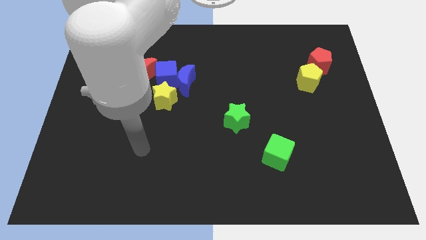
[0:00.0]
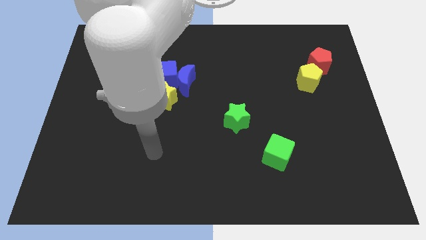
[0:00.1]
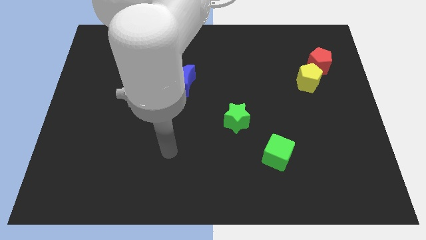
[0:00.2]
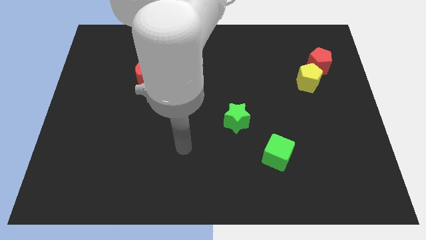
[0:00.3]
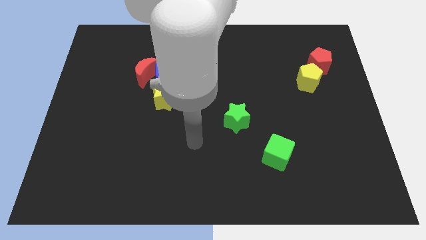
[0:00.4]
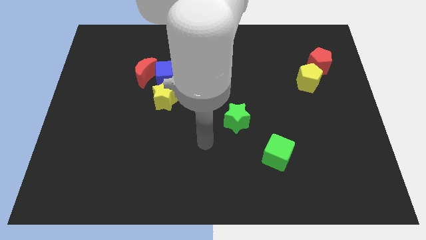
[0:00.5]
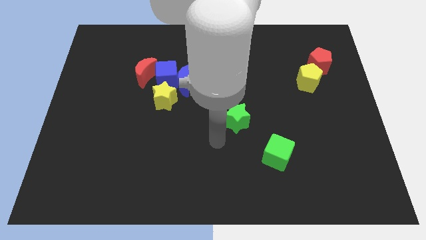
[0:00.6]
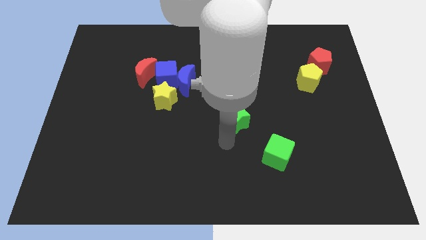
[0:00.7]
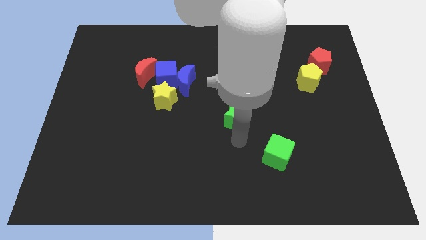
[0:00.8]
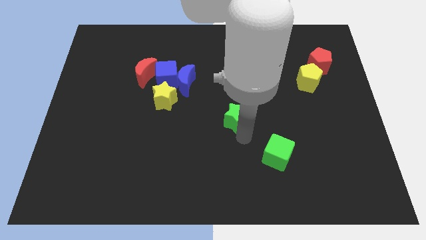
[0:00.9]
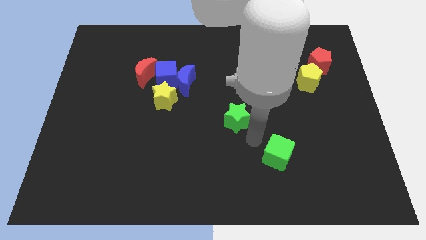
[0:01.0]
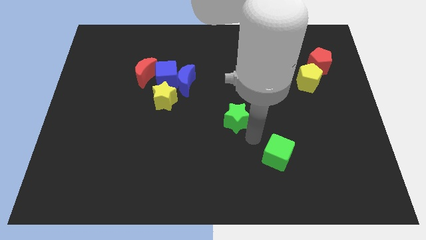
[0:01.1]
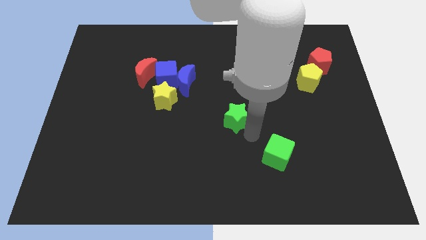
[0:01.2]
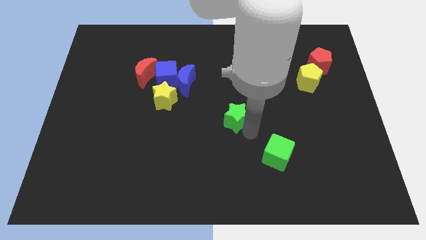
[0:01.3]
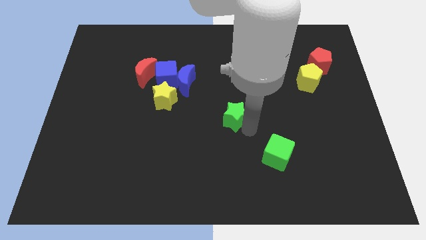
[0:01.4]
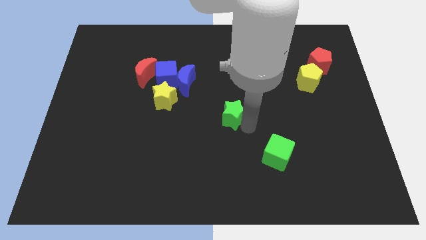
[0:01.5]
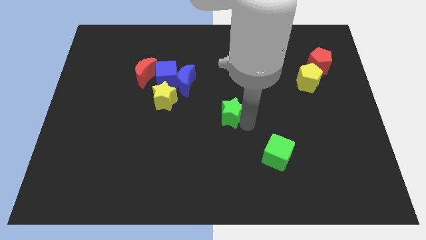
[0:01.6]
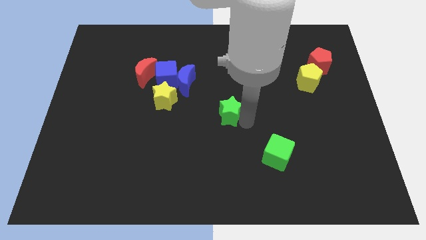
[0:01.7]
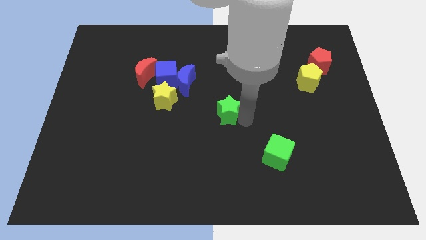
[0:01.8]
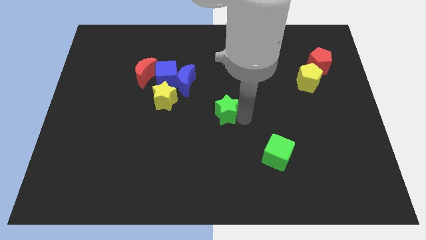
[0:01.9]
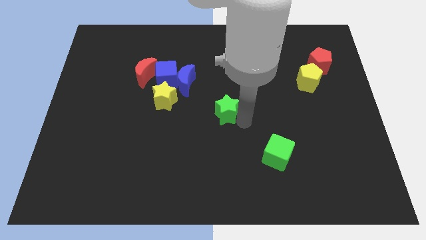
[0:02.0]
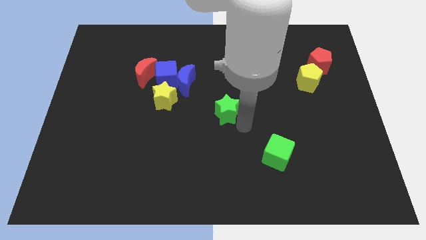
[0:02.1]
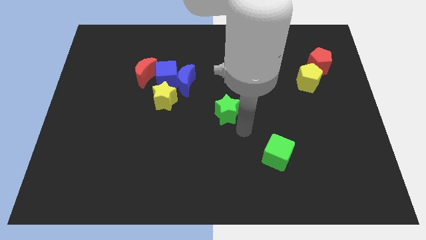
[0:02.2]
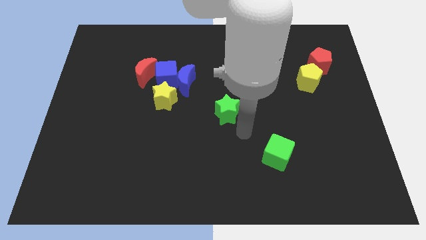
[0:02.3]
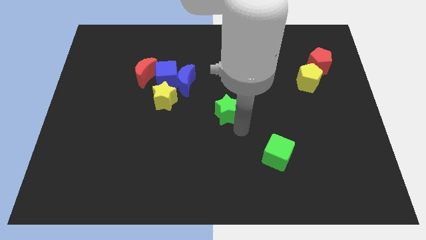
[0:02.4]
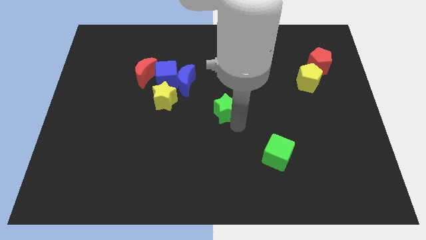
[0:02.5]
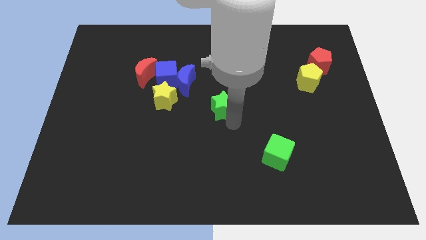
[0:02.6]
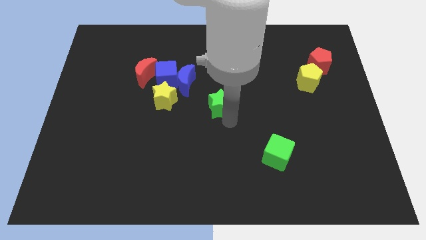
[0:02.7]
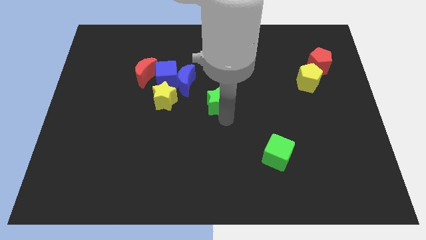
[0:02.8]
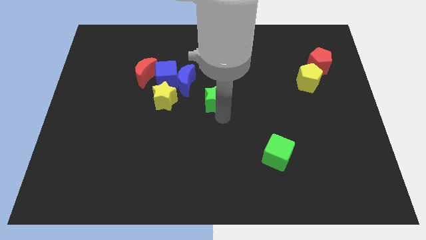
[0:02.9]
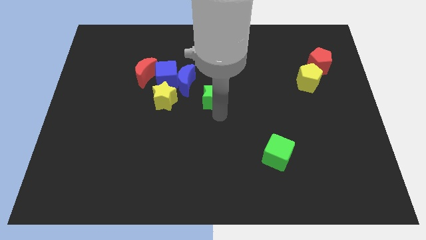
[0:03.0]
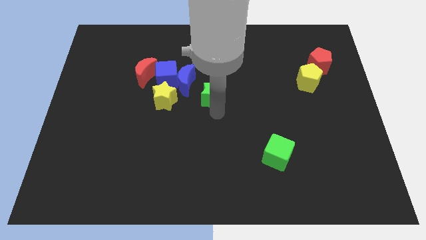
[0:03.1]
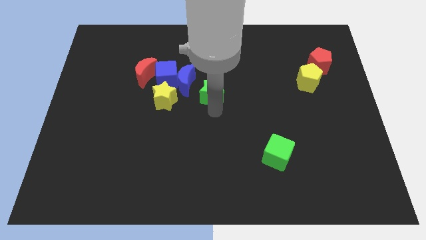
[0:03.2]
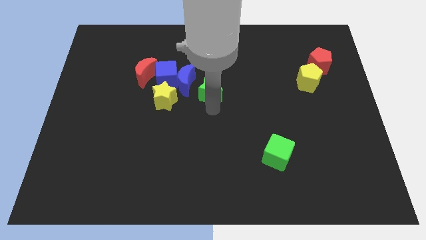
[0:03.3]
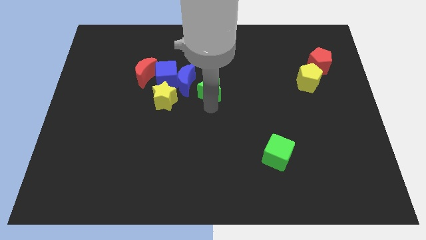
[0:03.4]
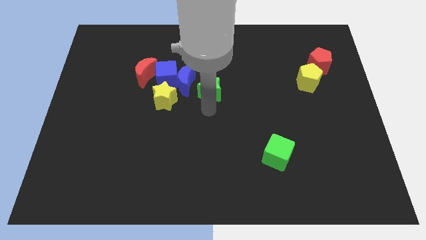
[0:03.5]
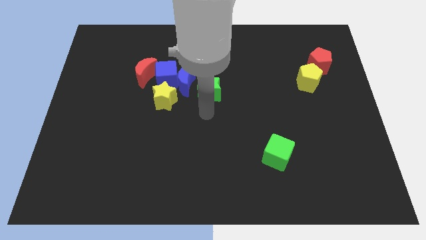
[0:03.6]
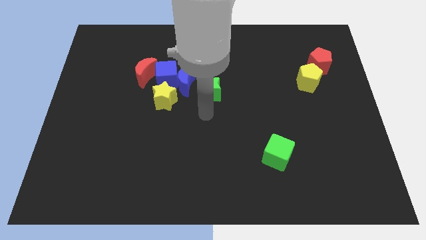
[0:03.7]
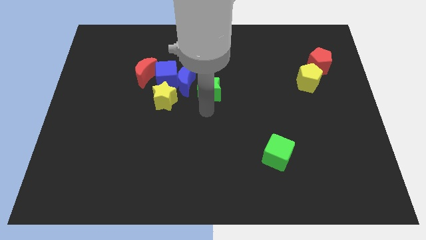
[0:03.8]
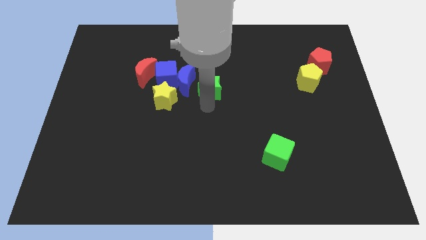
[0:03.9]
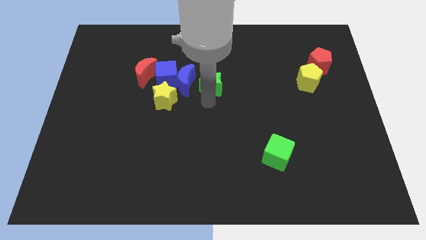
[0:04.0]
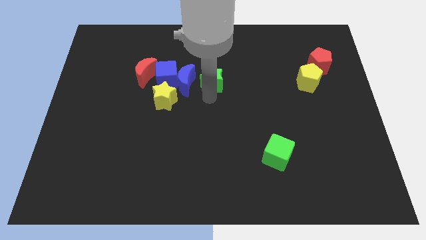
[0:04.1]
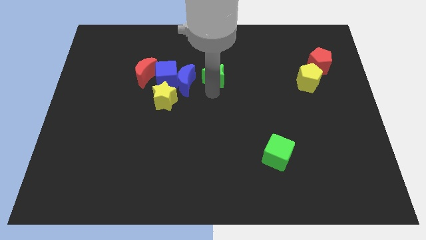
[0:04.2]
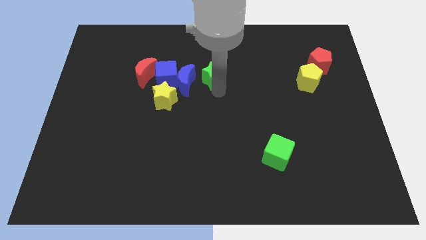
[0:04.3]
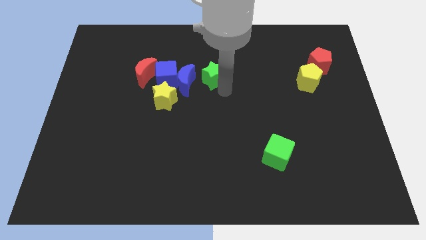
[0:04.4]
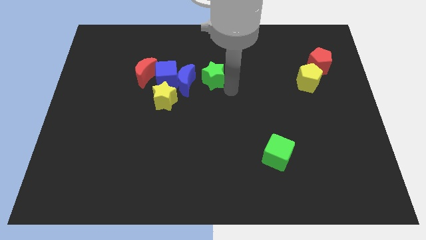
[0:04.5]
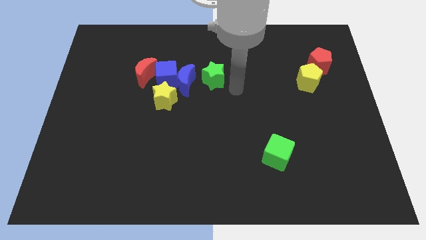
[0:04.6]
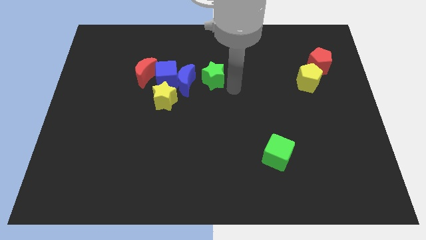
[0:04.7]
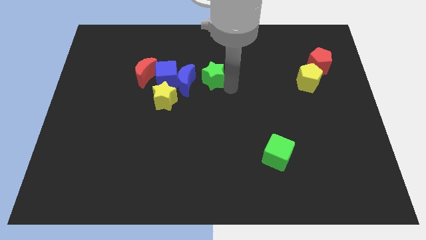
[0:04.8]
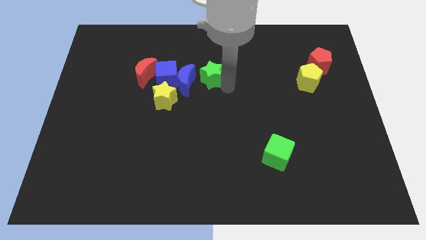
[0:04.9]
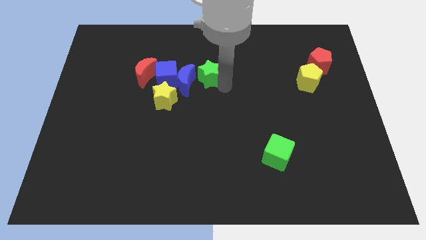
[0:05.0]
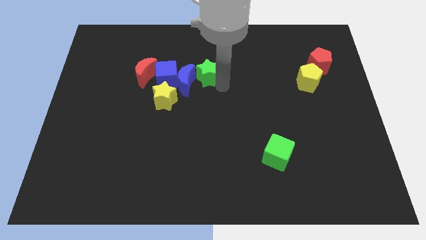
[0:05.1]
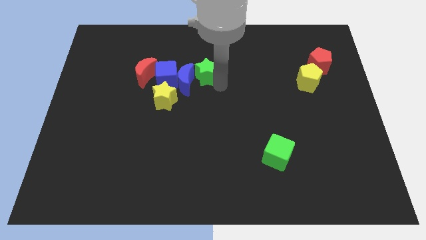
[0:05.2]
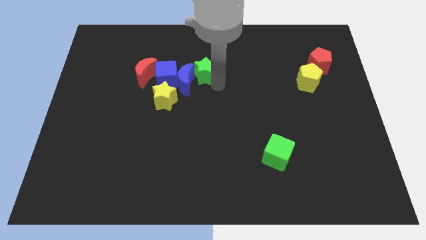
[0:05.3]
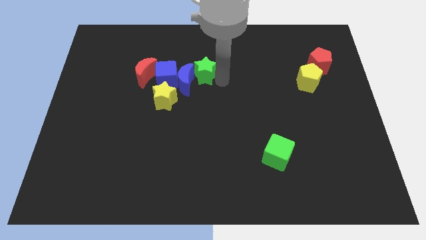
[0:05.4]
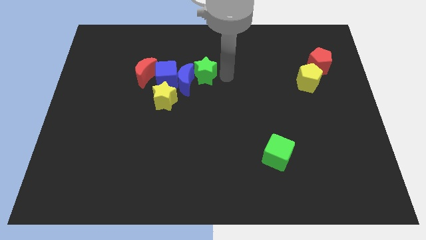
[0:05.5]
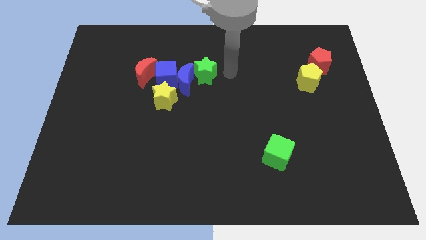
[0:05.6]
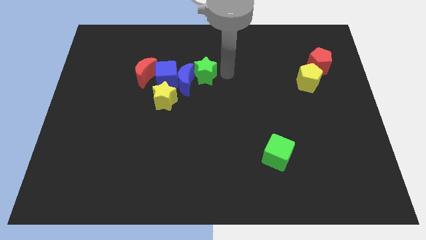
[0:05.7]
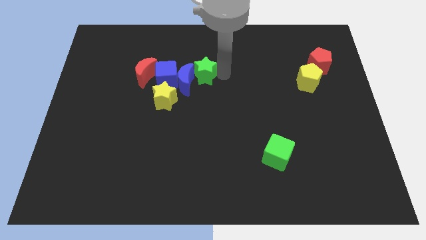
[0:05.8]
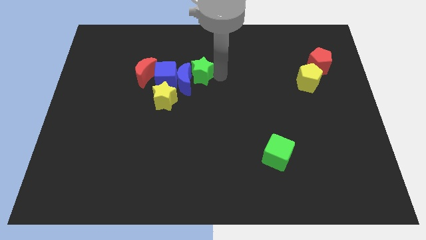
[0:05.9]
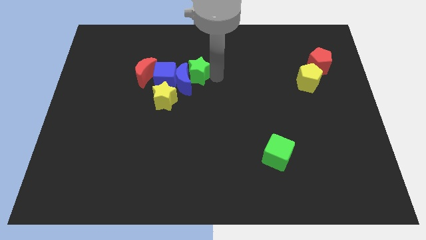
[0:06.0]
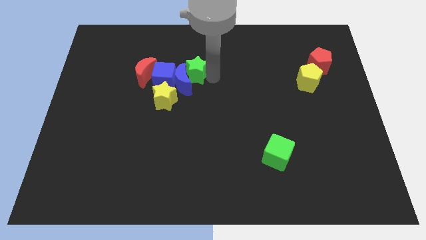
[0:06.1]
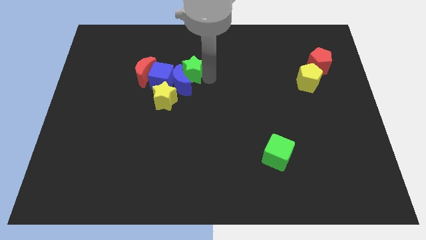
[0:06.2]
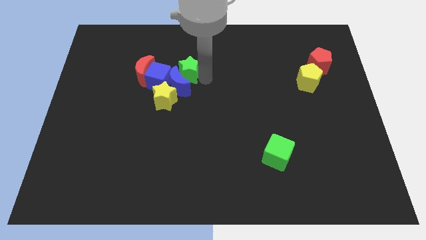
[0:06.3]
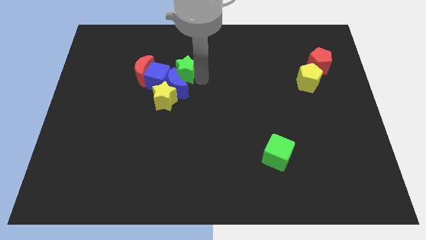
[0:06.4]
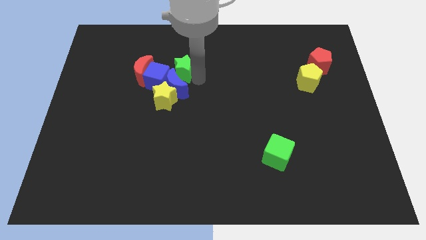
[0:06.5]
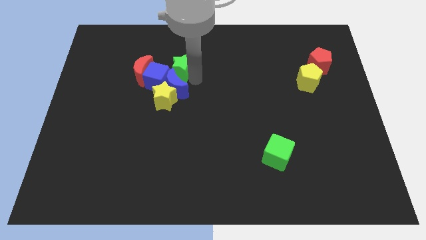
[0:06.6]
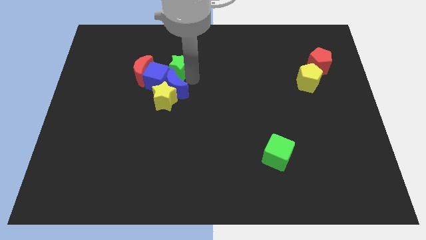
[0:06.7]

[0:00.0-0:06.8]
slide the green star to the blue cube

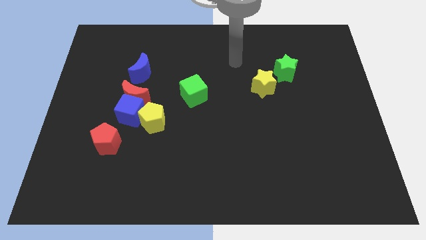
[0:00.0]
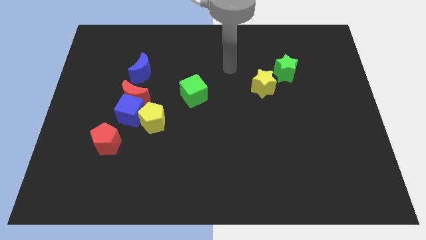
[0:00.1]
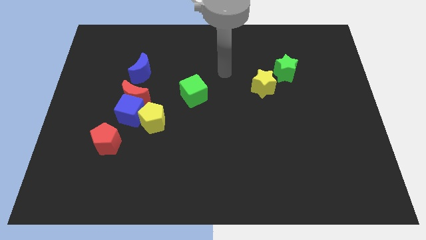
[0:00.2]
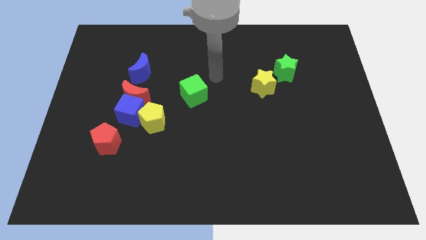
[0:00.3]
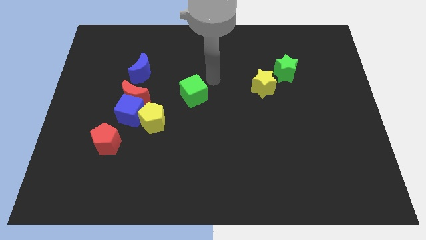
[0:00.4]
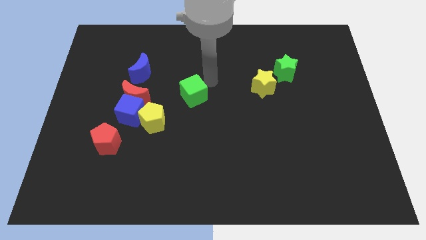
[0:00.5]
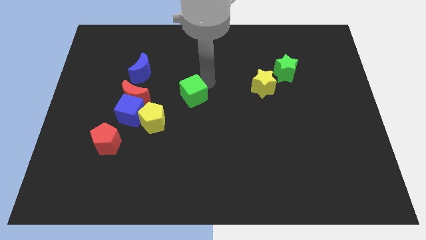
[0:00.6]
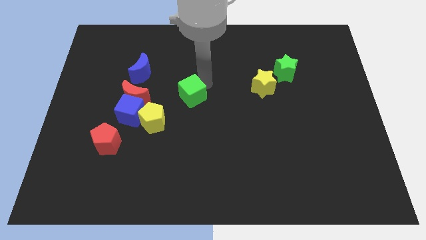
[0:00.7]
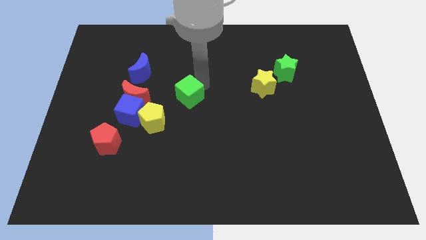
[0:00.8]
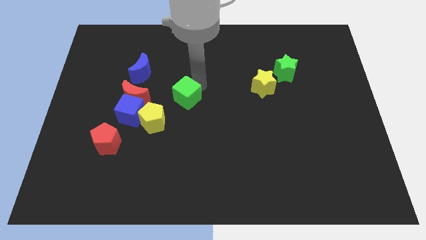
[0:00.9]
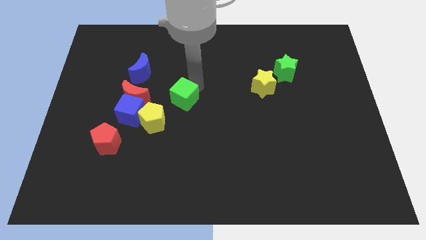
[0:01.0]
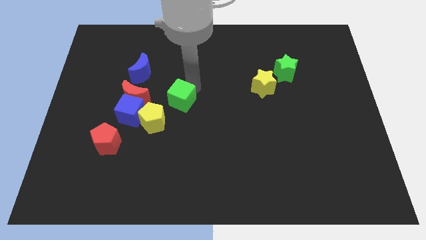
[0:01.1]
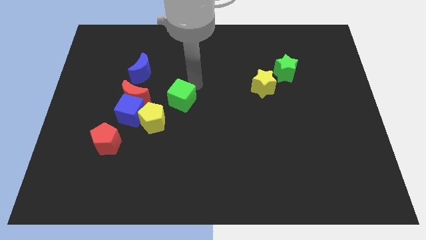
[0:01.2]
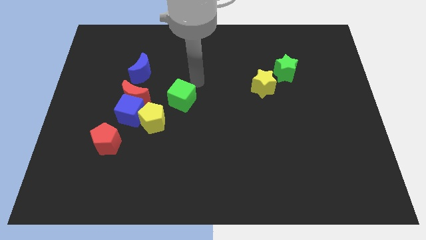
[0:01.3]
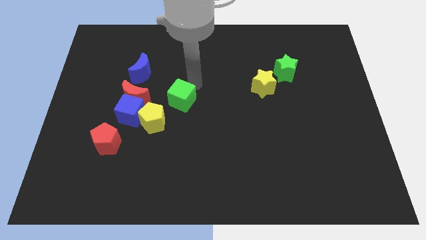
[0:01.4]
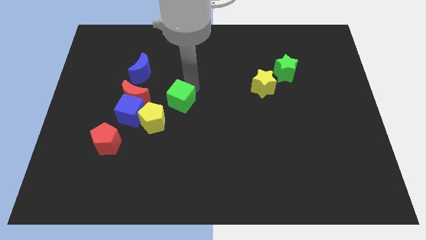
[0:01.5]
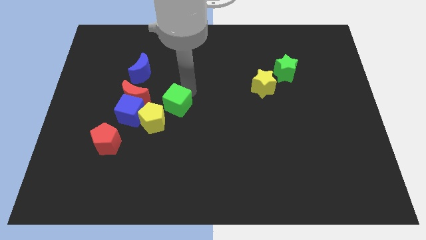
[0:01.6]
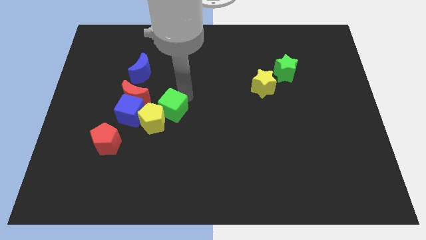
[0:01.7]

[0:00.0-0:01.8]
slide the green cube next to the yellow pentagon
